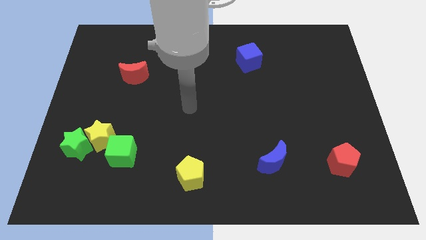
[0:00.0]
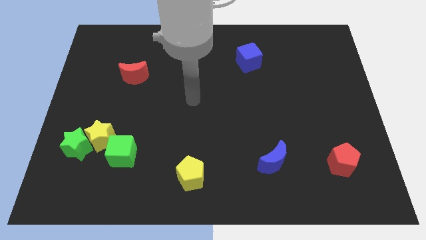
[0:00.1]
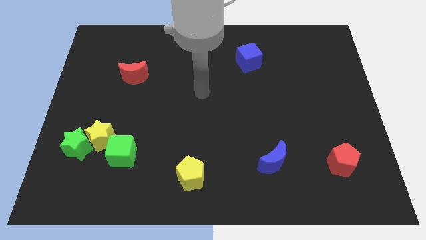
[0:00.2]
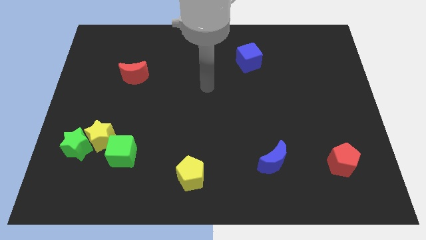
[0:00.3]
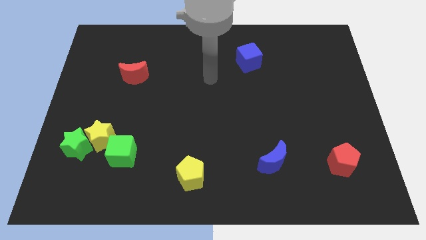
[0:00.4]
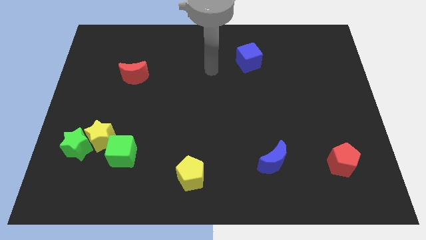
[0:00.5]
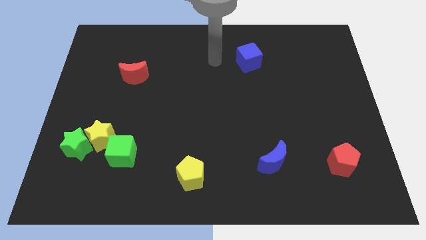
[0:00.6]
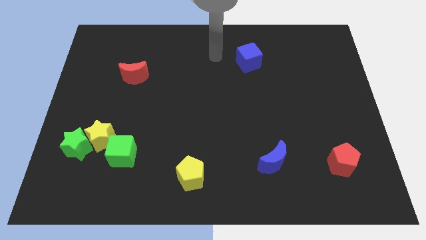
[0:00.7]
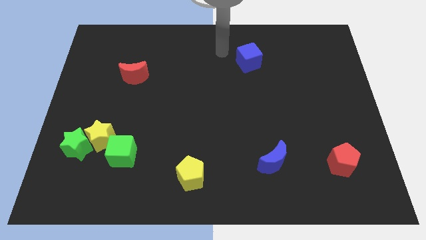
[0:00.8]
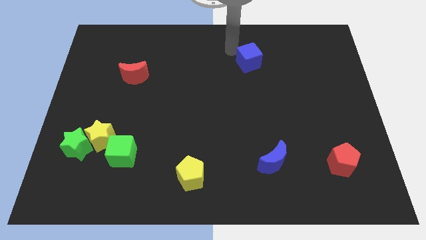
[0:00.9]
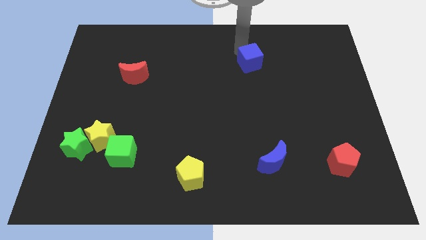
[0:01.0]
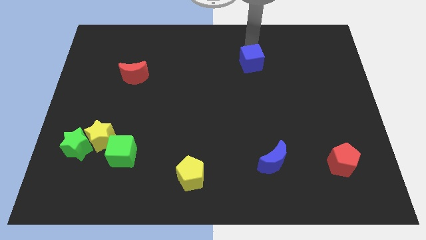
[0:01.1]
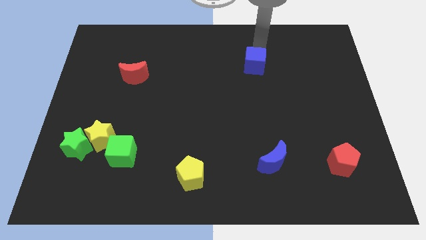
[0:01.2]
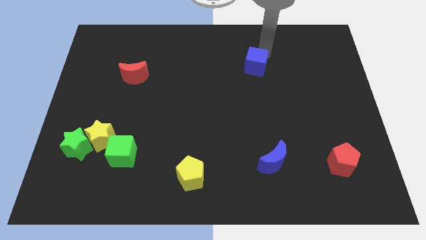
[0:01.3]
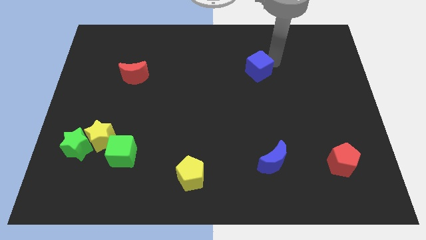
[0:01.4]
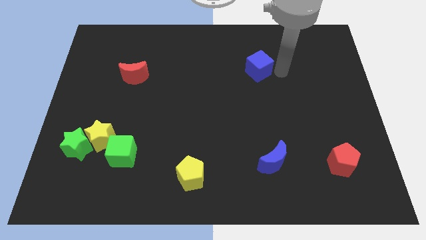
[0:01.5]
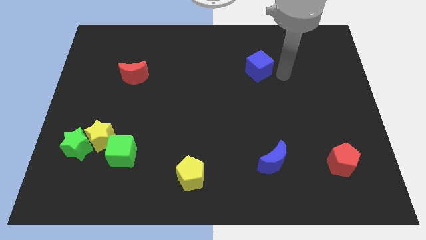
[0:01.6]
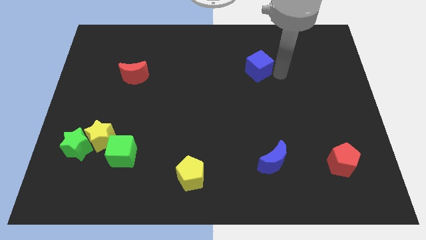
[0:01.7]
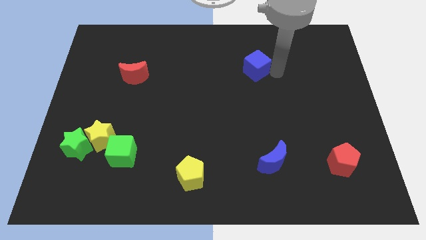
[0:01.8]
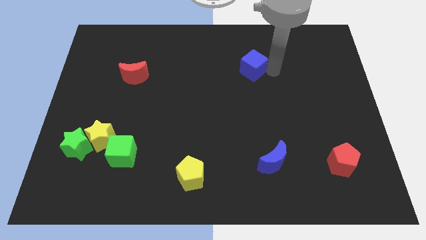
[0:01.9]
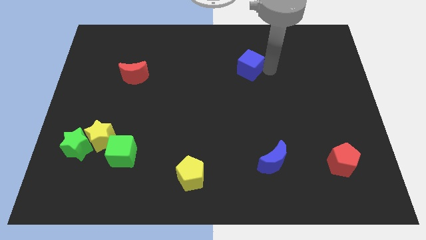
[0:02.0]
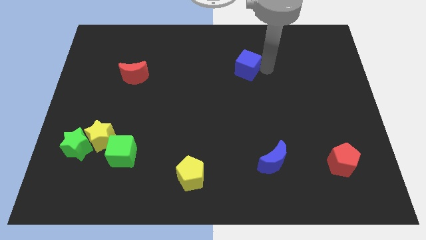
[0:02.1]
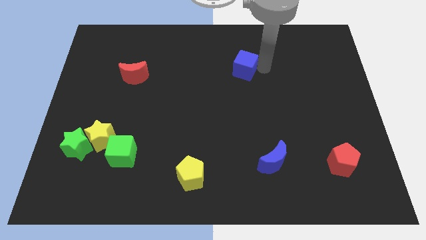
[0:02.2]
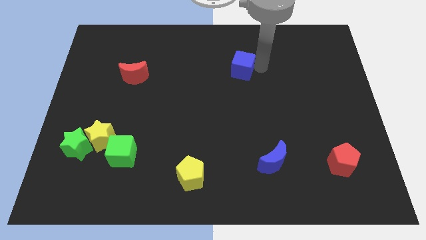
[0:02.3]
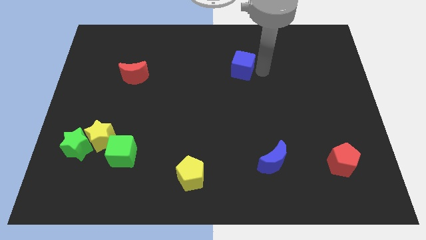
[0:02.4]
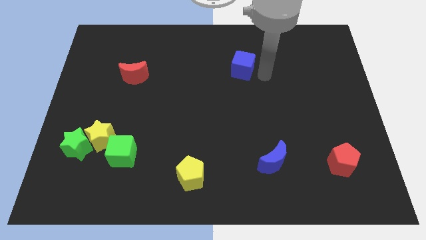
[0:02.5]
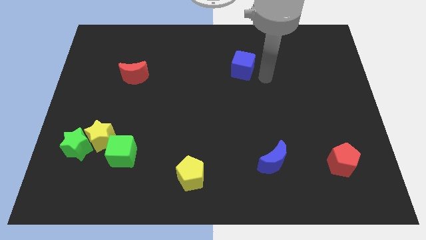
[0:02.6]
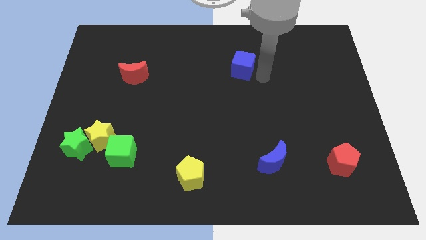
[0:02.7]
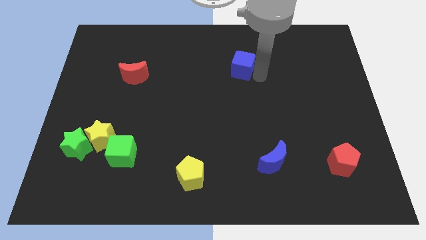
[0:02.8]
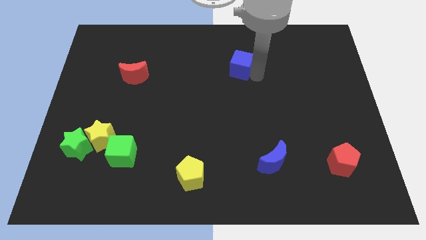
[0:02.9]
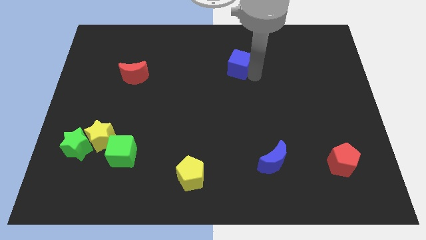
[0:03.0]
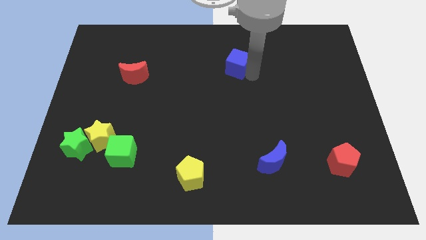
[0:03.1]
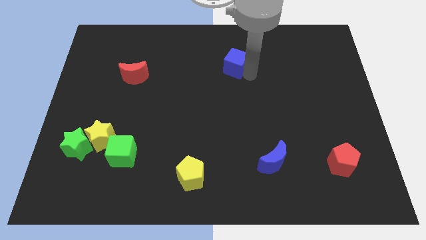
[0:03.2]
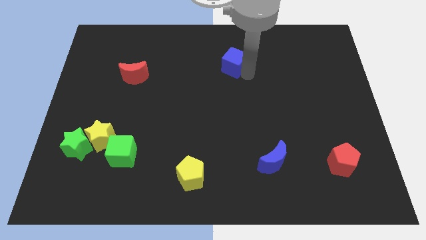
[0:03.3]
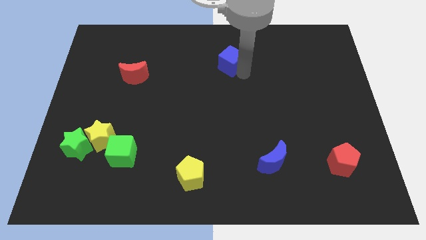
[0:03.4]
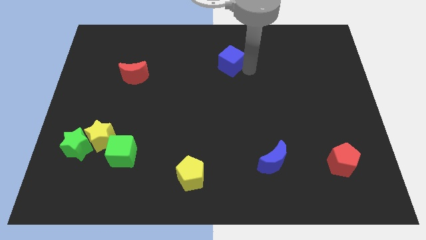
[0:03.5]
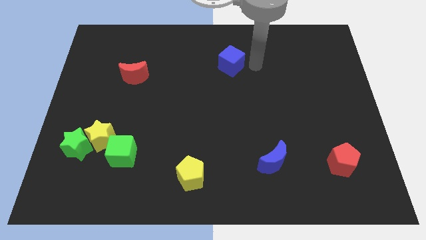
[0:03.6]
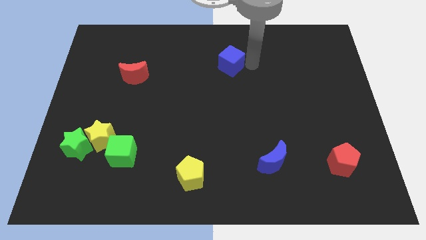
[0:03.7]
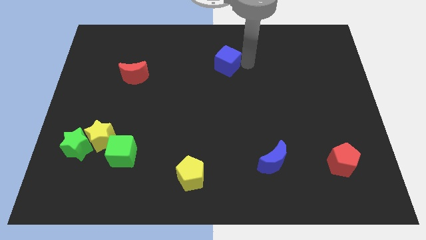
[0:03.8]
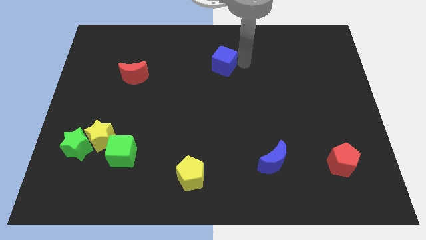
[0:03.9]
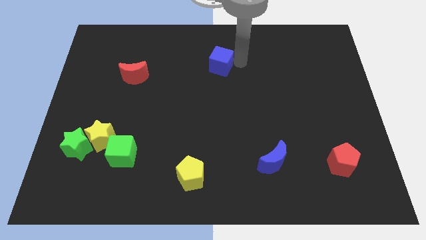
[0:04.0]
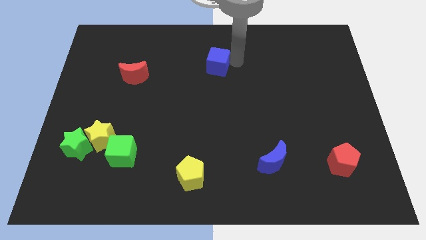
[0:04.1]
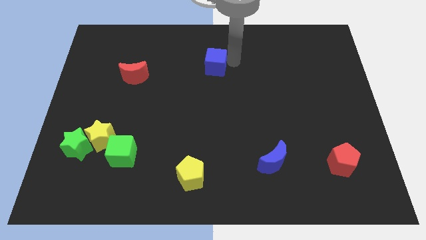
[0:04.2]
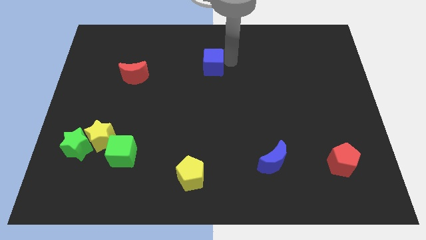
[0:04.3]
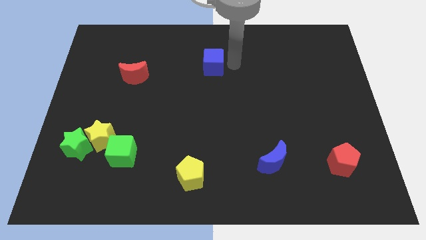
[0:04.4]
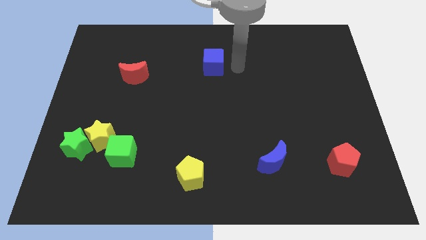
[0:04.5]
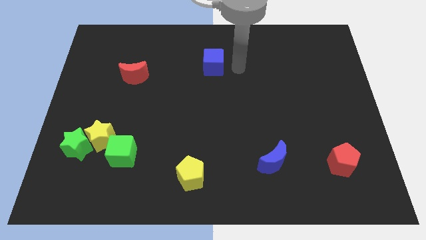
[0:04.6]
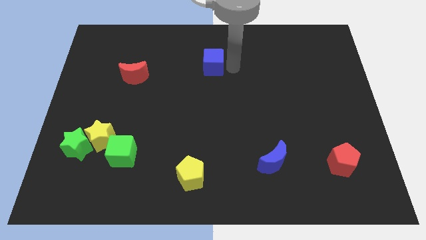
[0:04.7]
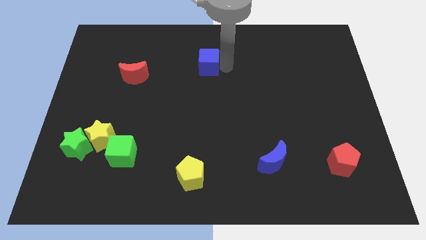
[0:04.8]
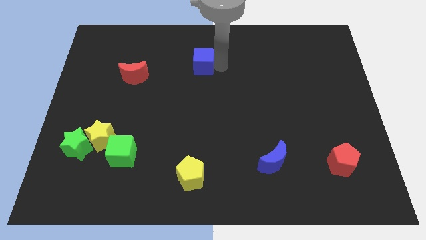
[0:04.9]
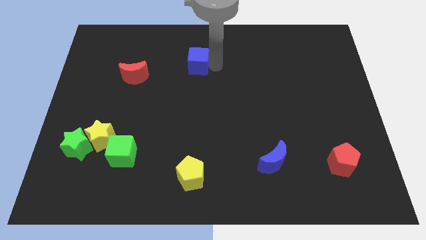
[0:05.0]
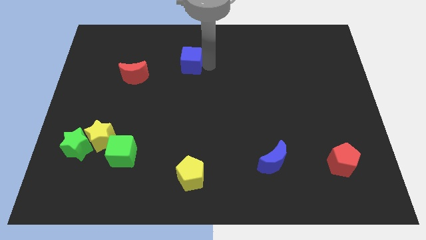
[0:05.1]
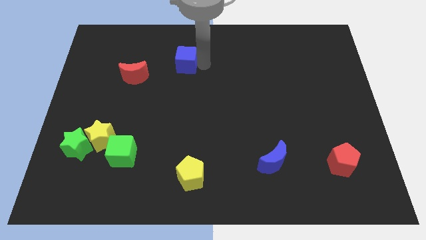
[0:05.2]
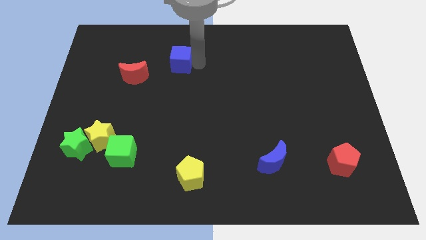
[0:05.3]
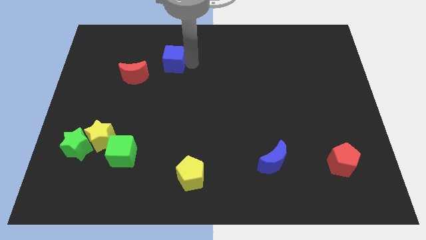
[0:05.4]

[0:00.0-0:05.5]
move the blue cube to the top right of the red moon

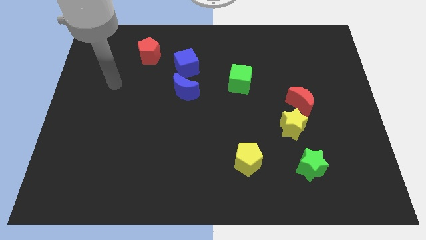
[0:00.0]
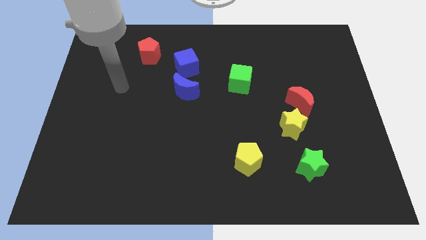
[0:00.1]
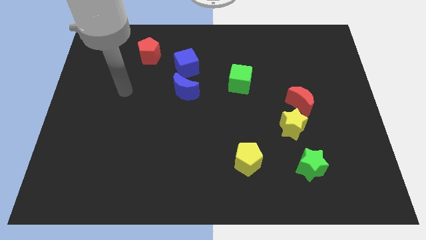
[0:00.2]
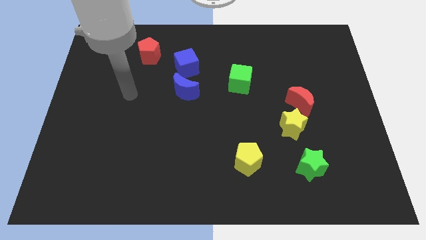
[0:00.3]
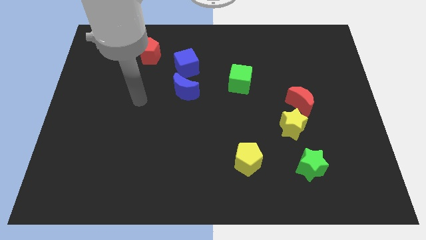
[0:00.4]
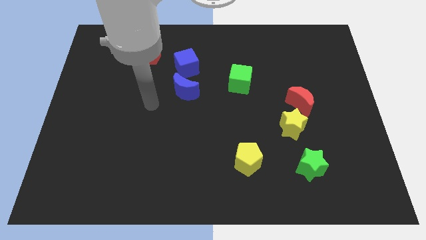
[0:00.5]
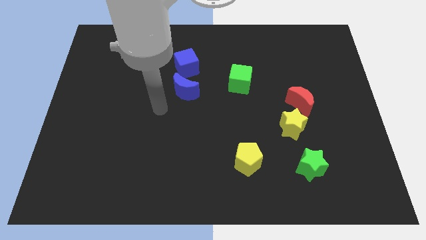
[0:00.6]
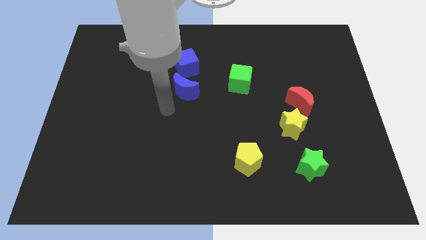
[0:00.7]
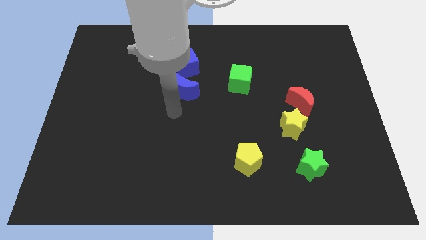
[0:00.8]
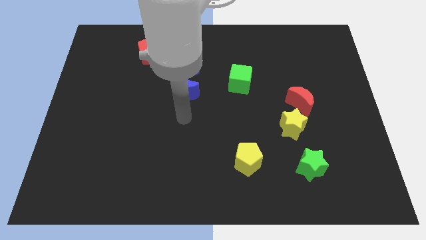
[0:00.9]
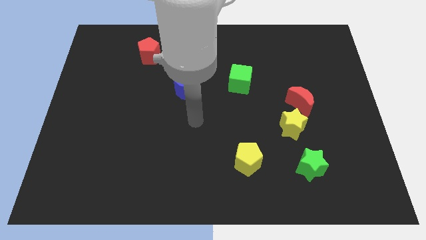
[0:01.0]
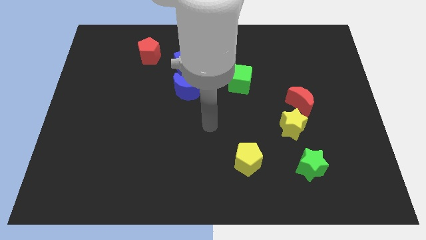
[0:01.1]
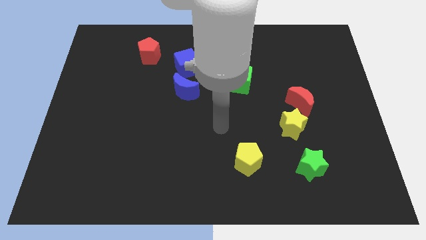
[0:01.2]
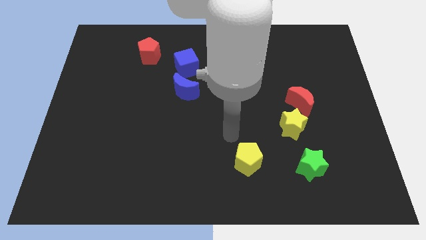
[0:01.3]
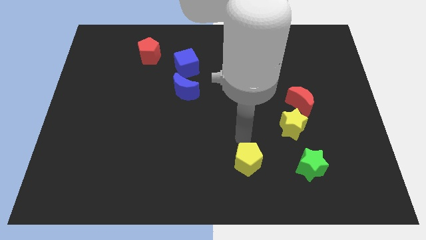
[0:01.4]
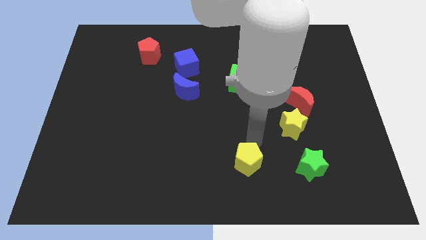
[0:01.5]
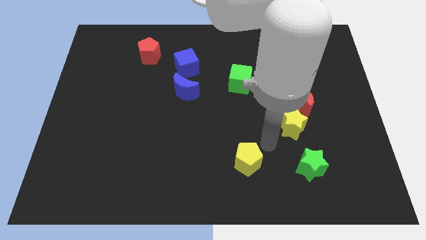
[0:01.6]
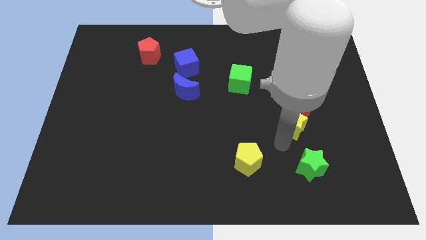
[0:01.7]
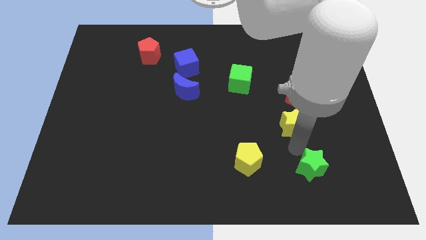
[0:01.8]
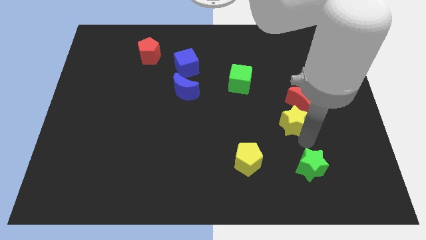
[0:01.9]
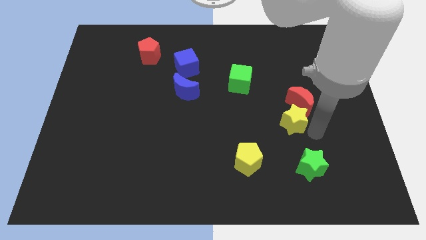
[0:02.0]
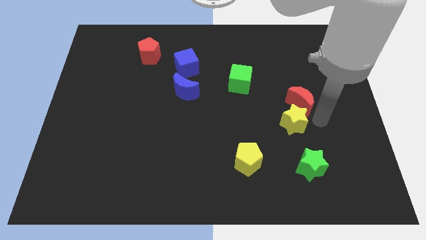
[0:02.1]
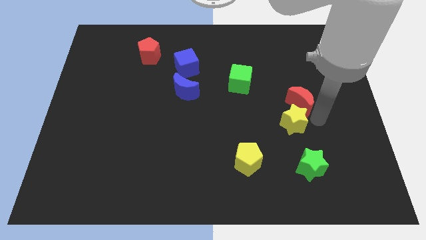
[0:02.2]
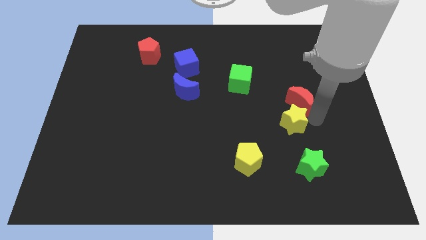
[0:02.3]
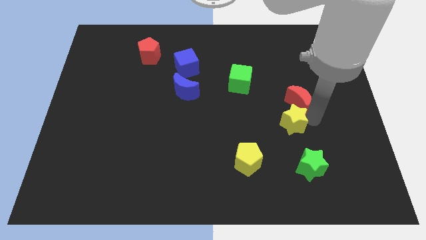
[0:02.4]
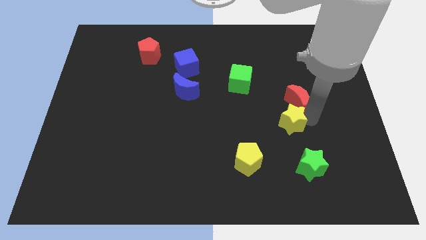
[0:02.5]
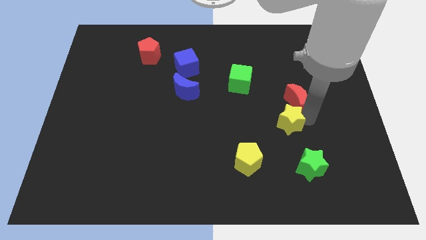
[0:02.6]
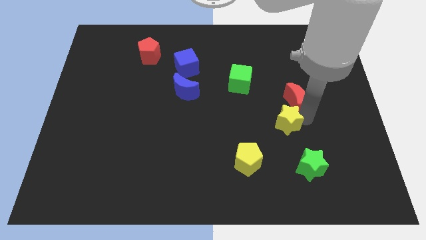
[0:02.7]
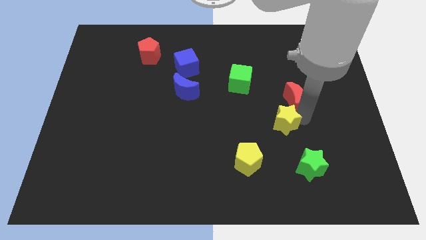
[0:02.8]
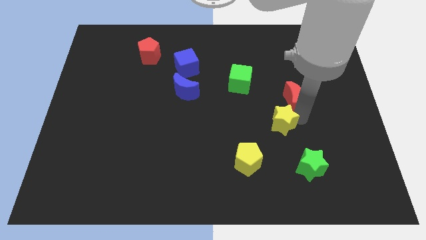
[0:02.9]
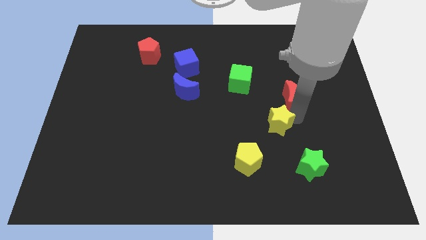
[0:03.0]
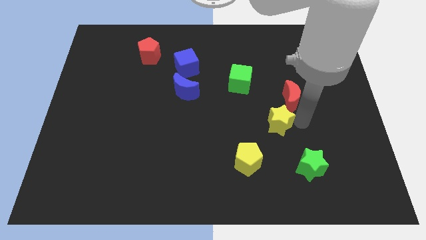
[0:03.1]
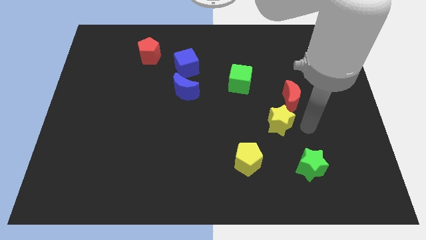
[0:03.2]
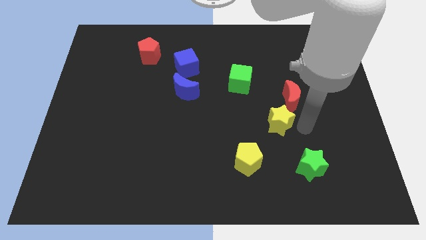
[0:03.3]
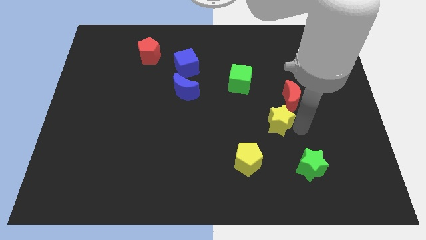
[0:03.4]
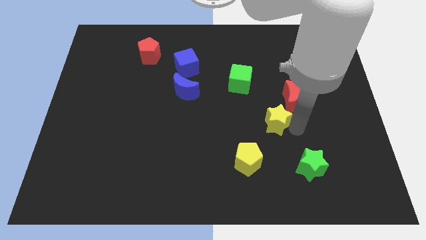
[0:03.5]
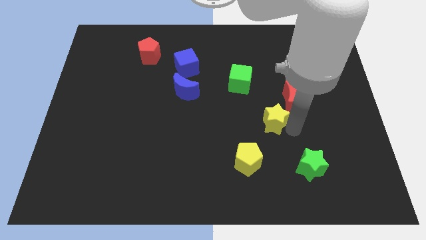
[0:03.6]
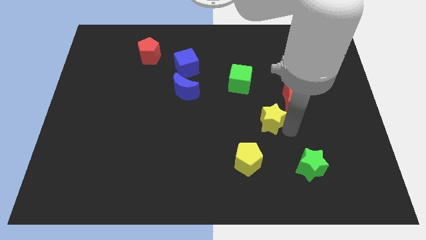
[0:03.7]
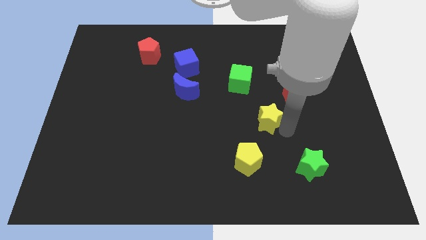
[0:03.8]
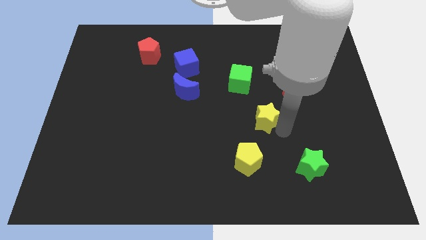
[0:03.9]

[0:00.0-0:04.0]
slide the yellow star to the top side of the yellow pentagon
